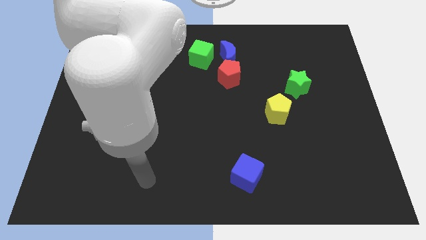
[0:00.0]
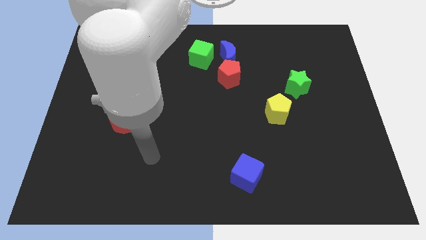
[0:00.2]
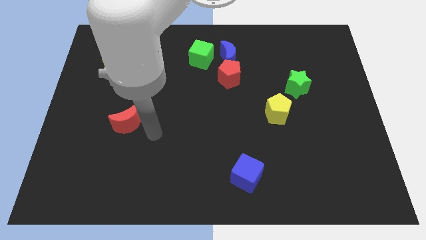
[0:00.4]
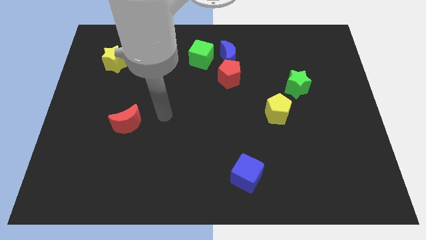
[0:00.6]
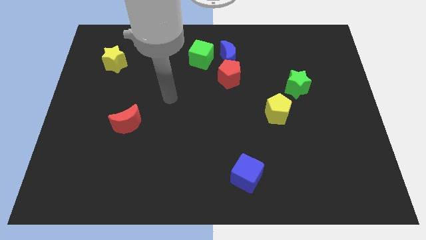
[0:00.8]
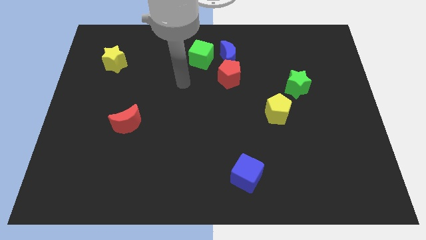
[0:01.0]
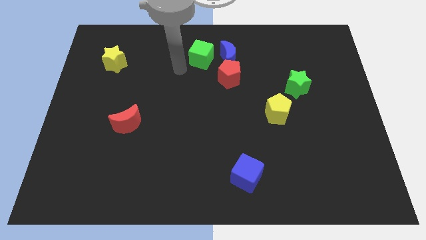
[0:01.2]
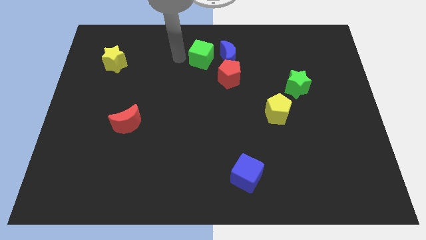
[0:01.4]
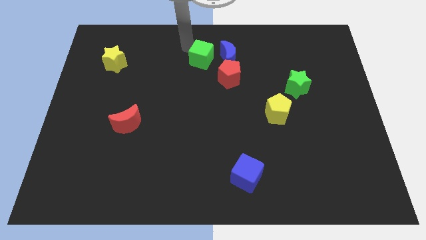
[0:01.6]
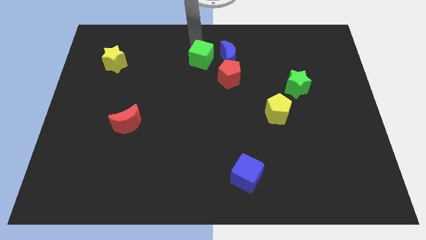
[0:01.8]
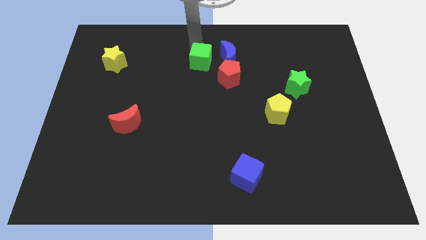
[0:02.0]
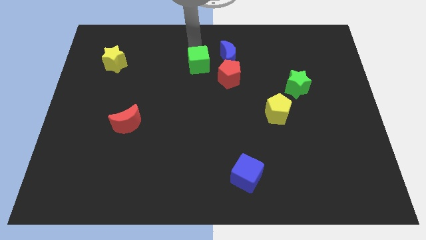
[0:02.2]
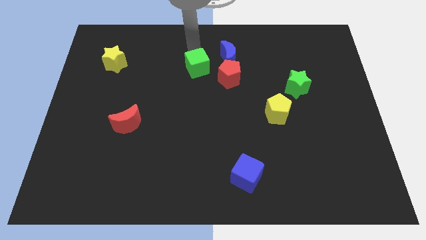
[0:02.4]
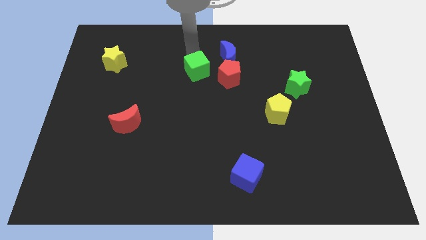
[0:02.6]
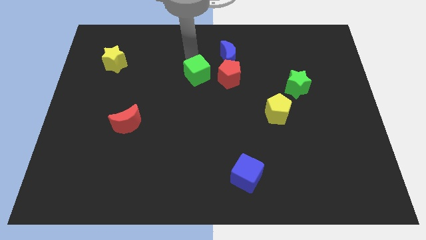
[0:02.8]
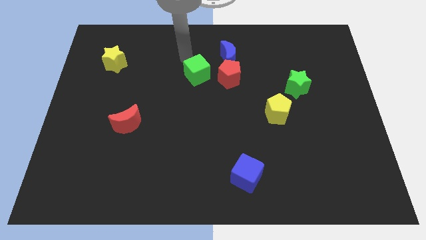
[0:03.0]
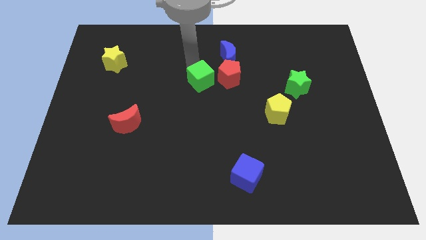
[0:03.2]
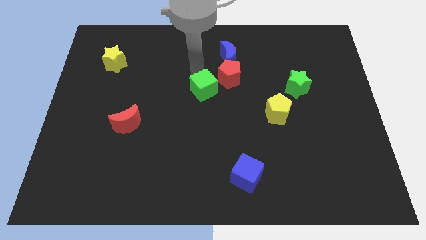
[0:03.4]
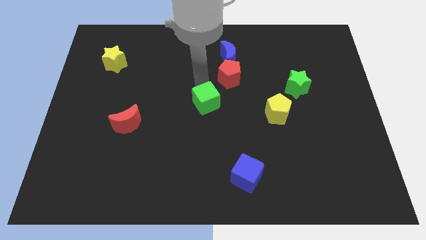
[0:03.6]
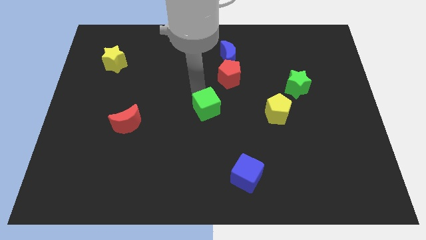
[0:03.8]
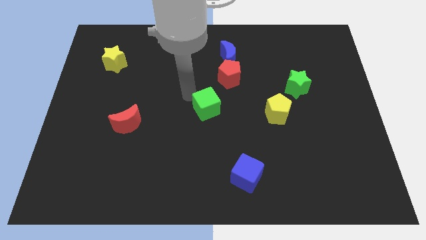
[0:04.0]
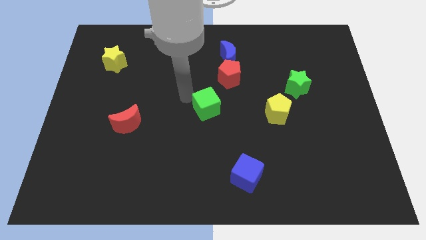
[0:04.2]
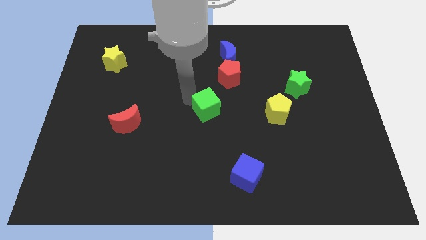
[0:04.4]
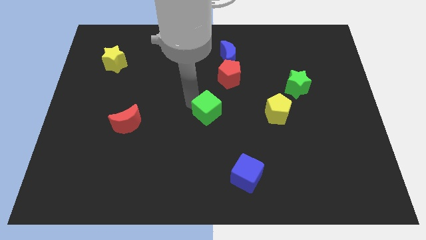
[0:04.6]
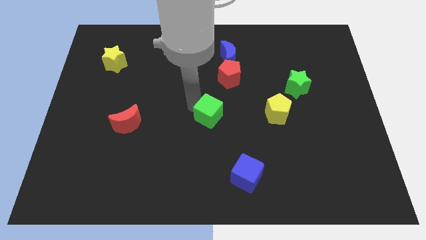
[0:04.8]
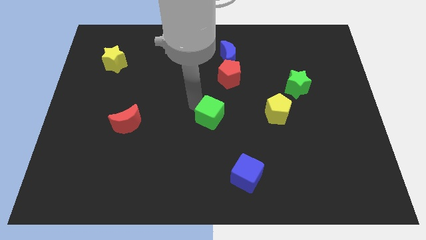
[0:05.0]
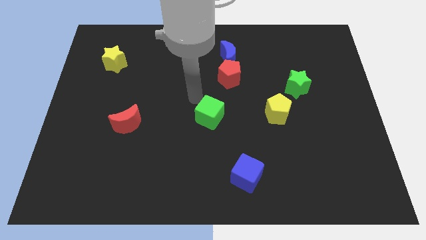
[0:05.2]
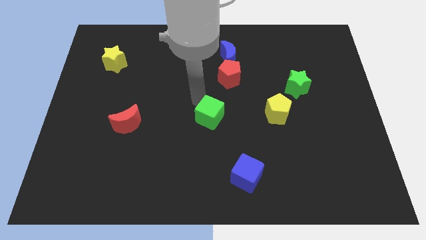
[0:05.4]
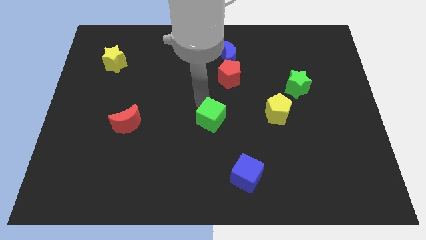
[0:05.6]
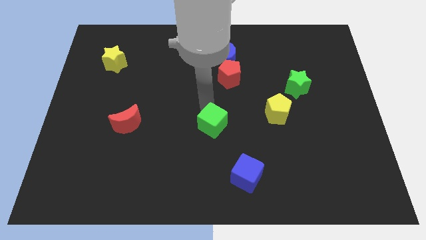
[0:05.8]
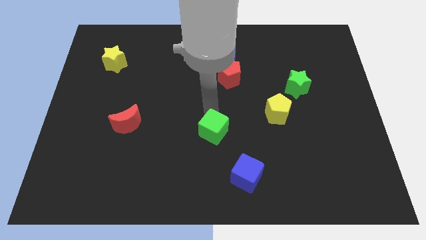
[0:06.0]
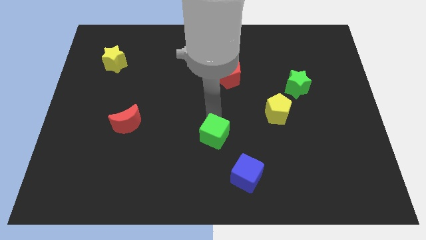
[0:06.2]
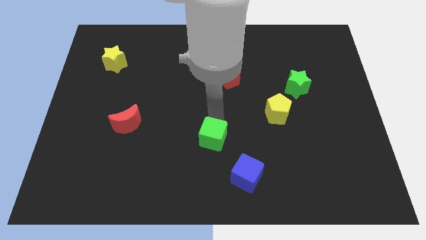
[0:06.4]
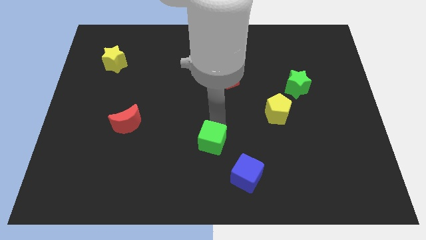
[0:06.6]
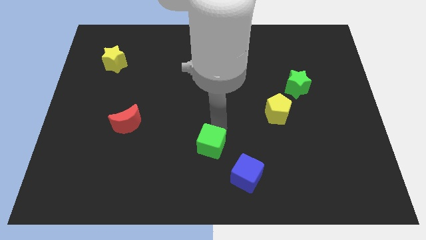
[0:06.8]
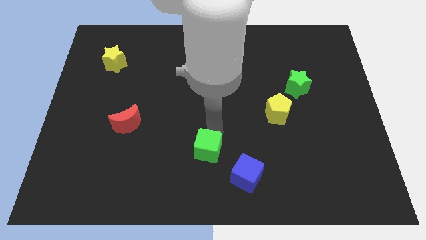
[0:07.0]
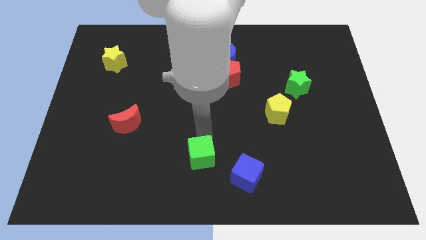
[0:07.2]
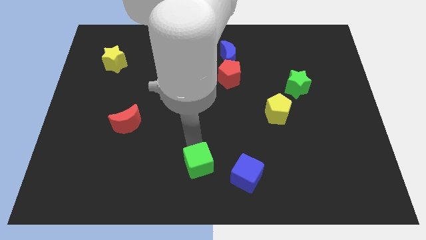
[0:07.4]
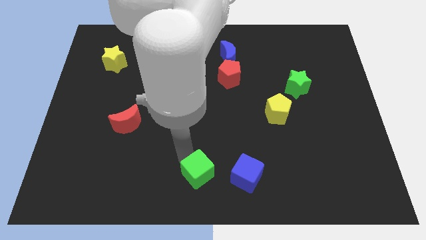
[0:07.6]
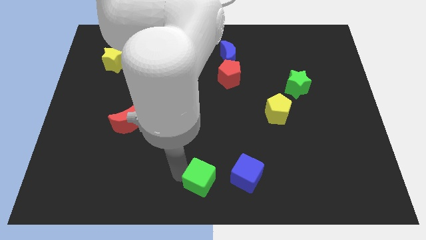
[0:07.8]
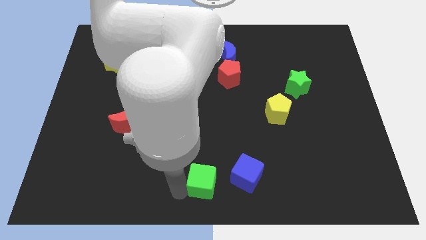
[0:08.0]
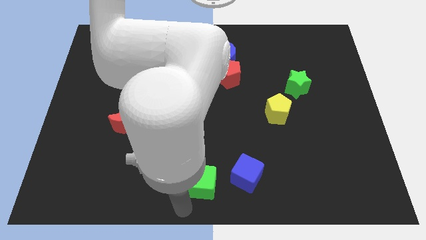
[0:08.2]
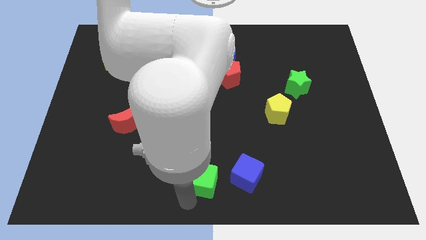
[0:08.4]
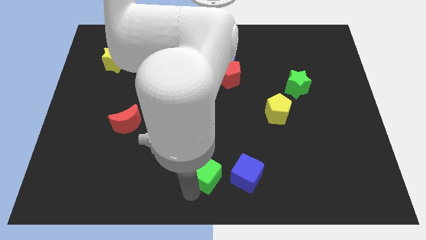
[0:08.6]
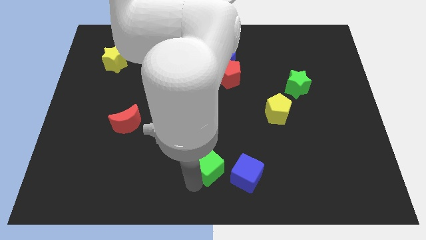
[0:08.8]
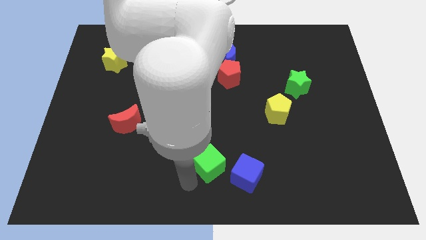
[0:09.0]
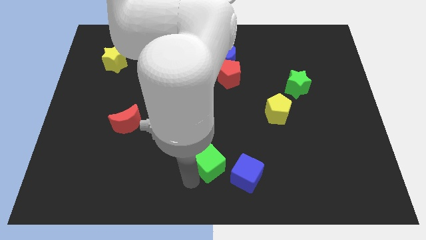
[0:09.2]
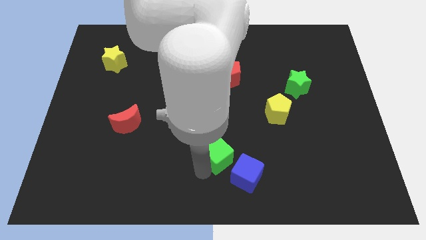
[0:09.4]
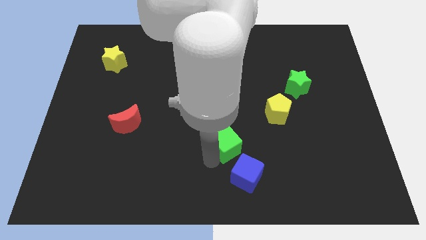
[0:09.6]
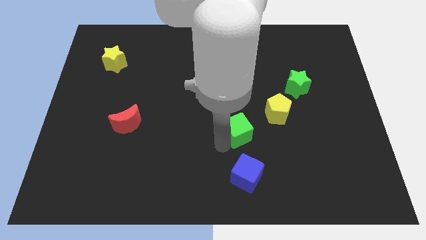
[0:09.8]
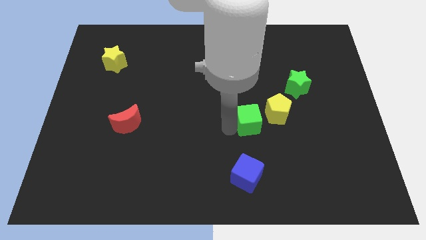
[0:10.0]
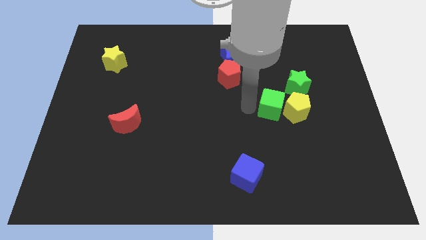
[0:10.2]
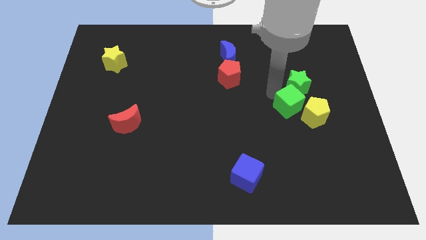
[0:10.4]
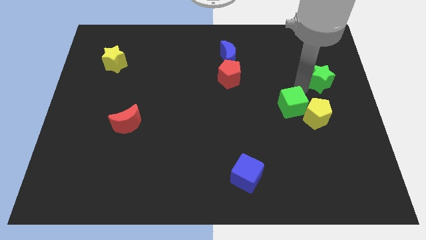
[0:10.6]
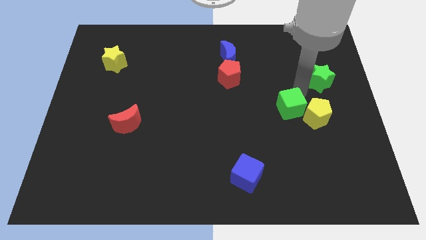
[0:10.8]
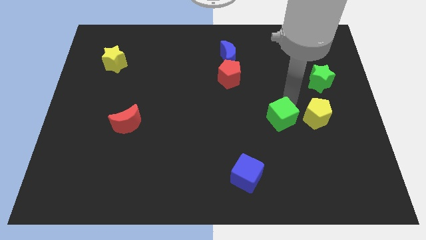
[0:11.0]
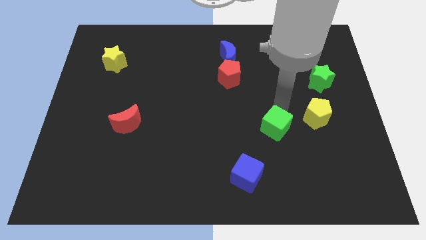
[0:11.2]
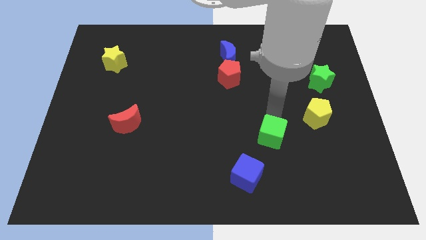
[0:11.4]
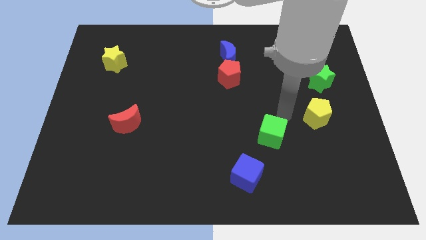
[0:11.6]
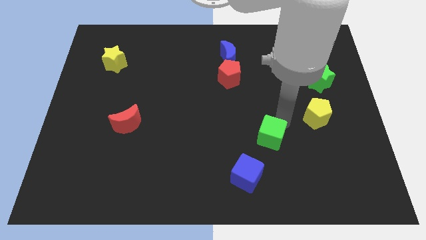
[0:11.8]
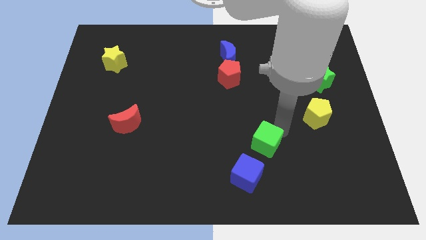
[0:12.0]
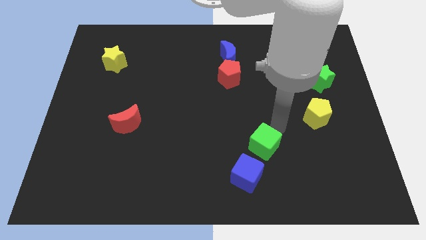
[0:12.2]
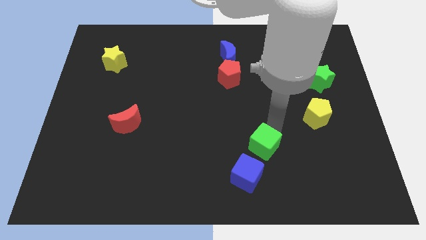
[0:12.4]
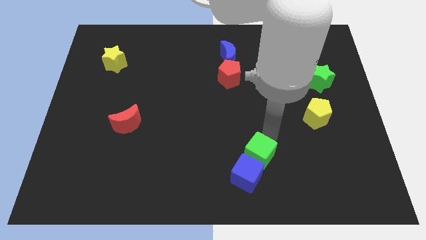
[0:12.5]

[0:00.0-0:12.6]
push the green cube close to the blue cube

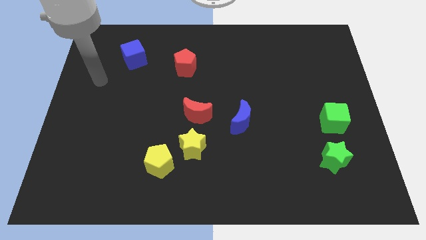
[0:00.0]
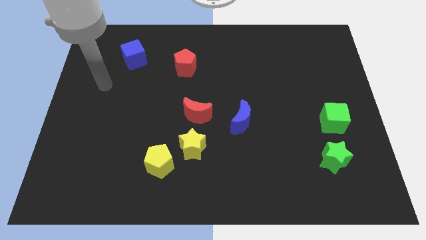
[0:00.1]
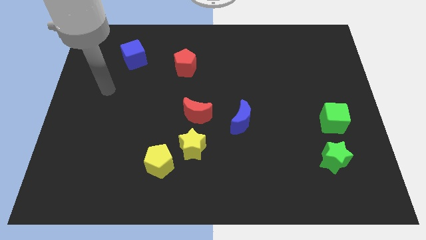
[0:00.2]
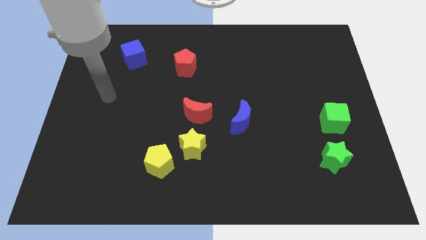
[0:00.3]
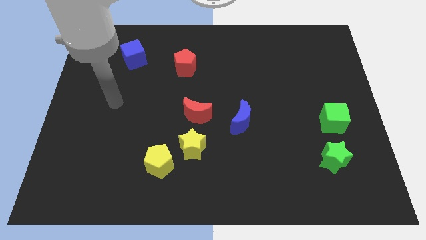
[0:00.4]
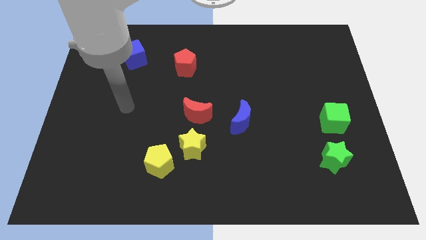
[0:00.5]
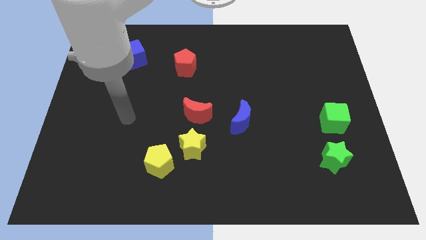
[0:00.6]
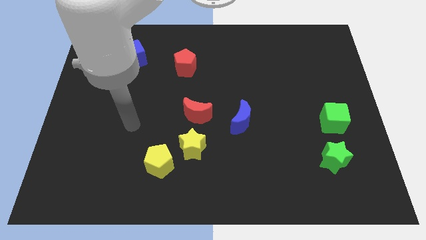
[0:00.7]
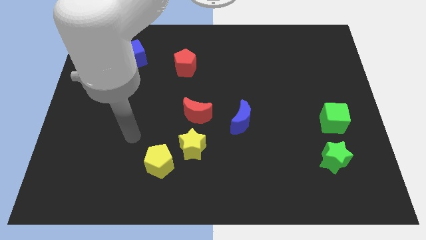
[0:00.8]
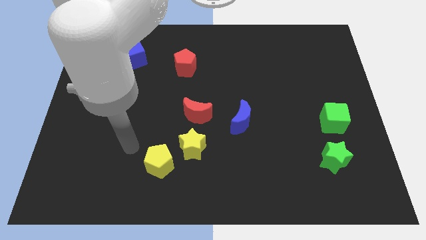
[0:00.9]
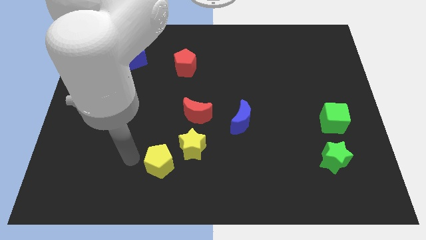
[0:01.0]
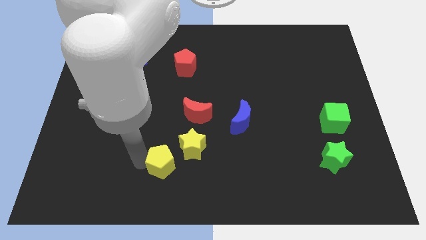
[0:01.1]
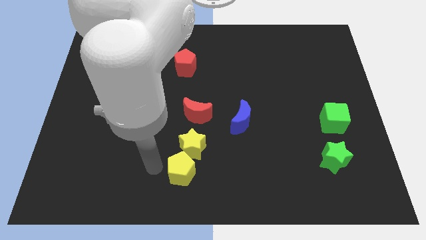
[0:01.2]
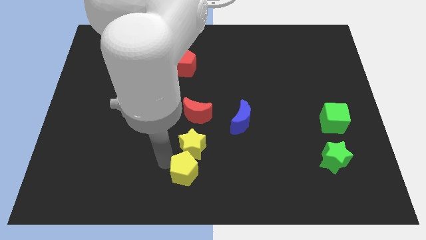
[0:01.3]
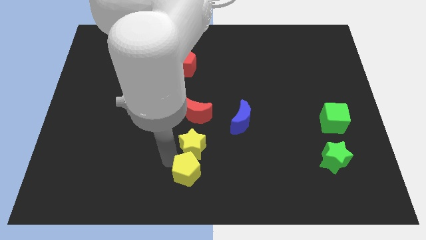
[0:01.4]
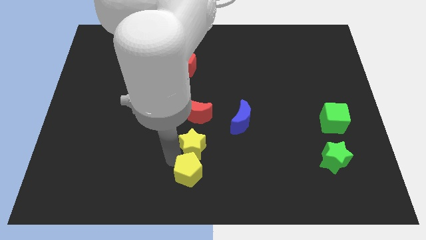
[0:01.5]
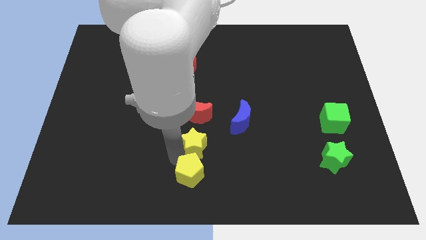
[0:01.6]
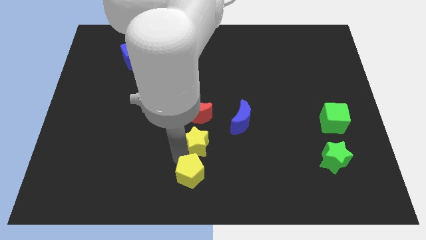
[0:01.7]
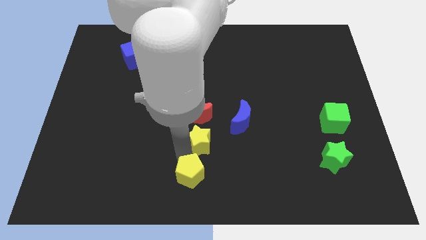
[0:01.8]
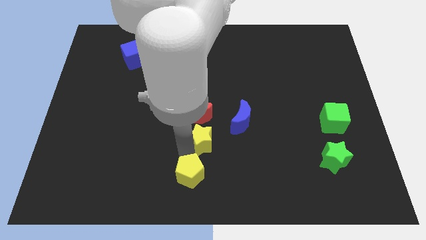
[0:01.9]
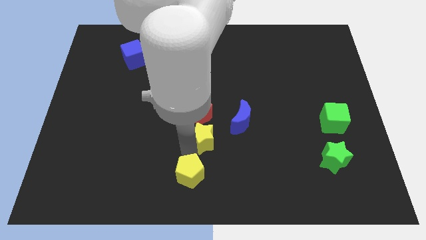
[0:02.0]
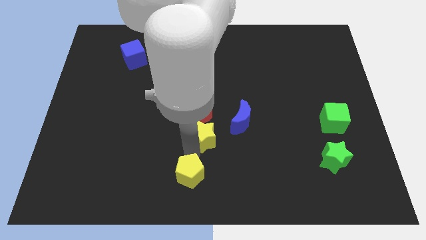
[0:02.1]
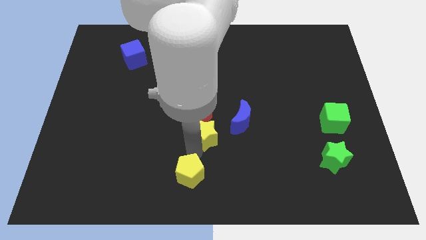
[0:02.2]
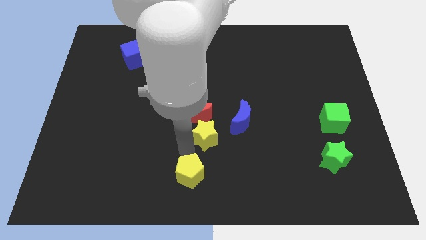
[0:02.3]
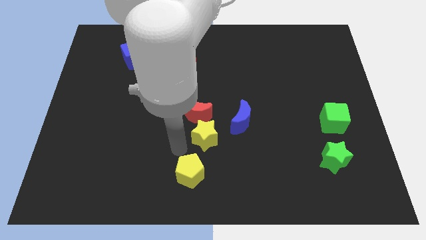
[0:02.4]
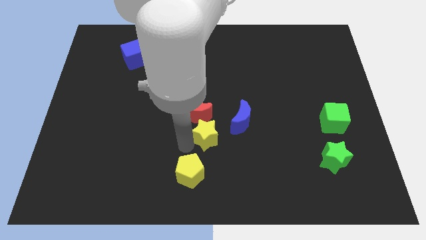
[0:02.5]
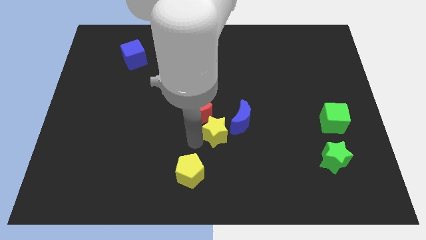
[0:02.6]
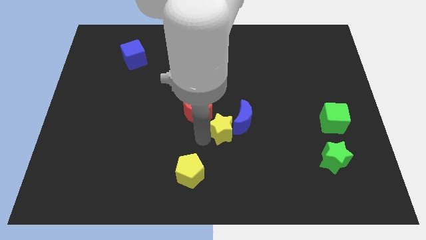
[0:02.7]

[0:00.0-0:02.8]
slide the yellow star to the blue moon
